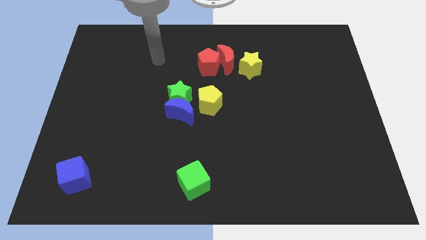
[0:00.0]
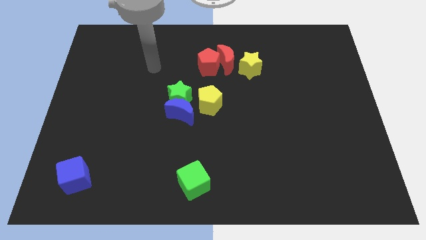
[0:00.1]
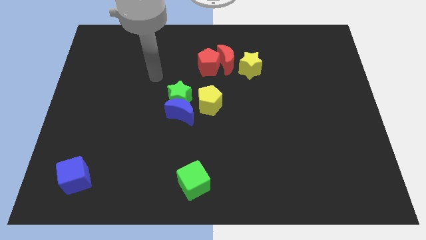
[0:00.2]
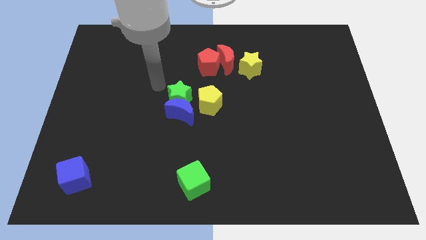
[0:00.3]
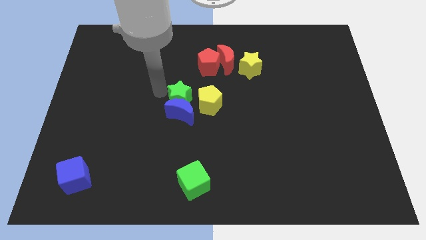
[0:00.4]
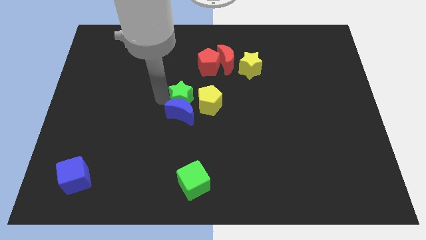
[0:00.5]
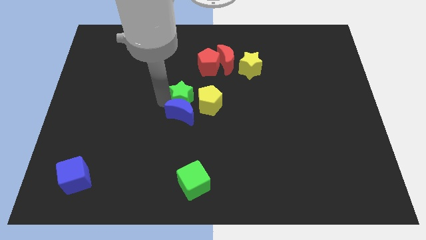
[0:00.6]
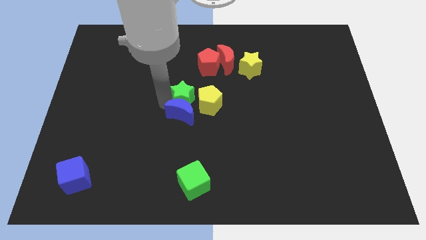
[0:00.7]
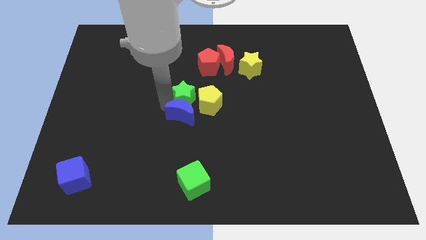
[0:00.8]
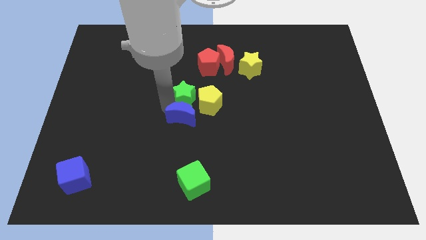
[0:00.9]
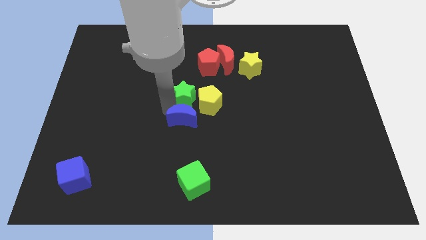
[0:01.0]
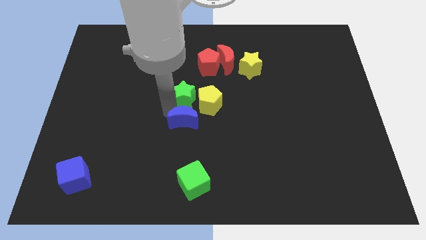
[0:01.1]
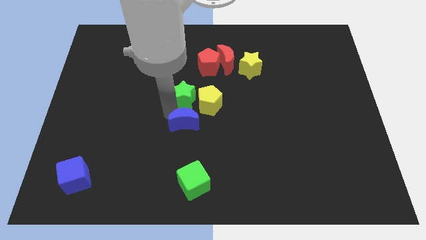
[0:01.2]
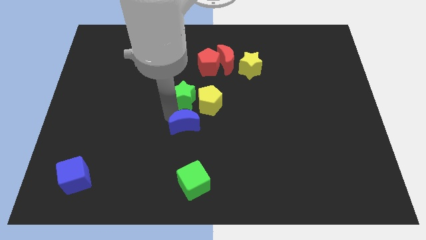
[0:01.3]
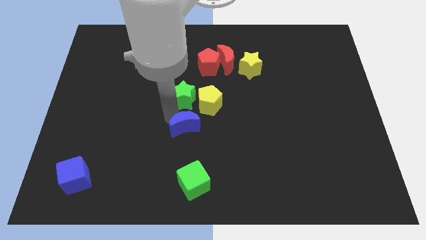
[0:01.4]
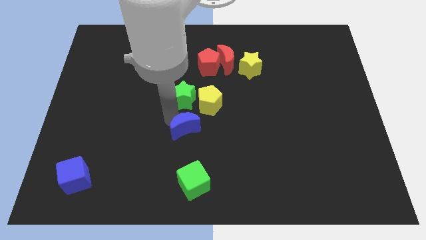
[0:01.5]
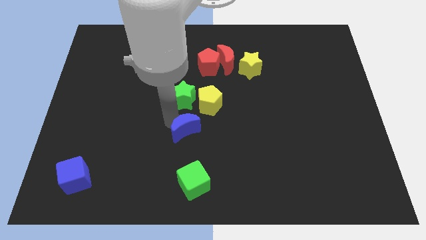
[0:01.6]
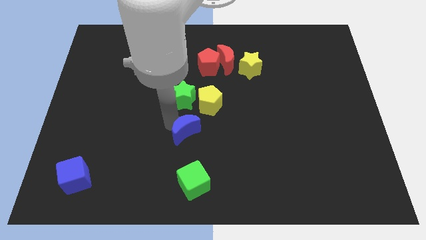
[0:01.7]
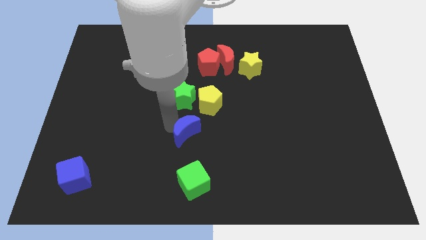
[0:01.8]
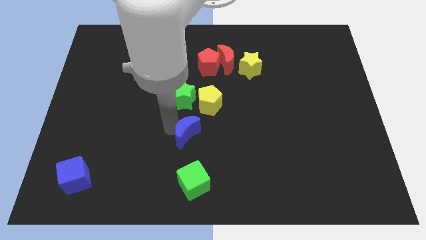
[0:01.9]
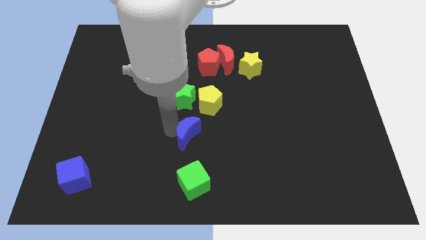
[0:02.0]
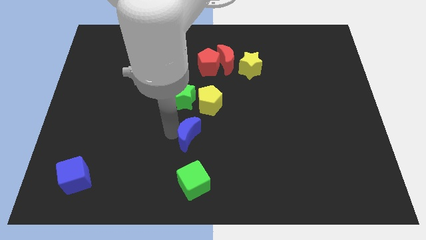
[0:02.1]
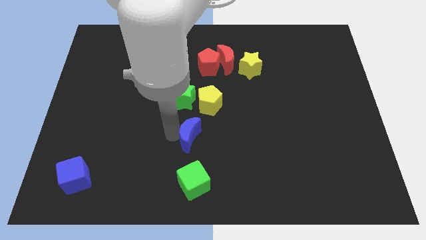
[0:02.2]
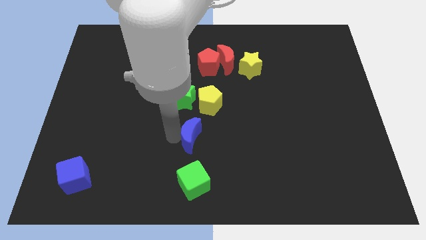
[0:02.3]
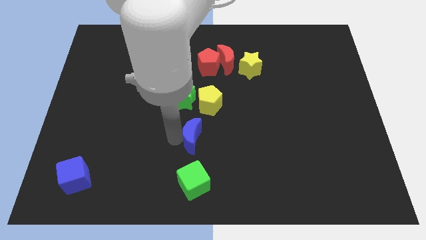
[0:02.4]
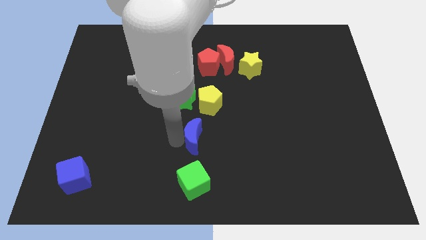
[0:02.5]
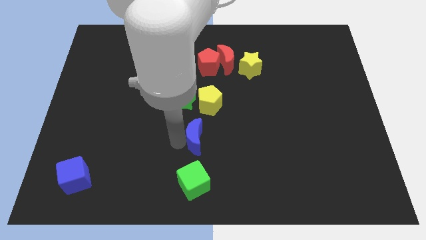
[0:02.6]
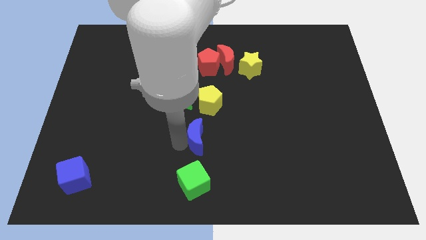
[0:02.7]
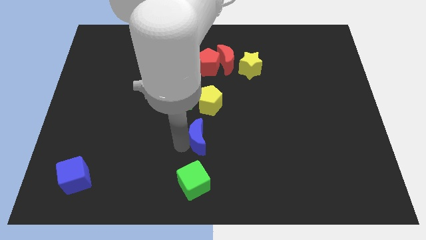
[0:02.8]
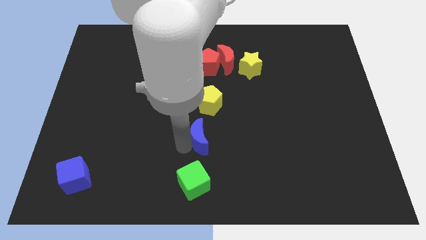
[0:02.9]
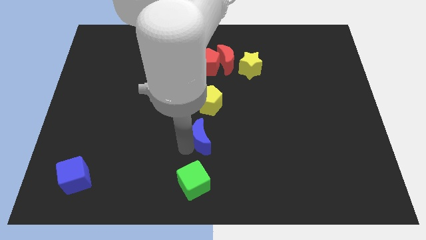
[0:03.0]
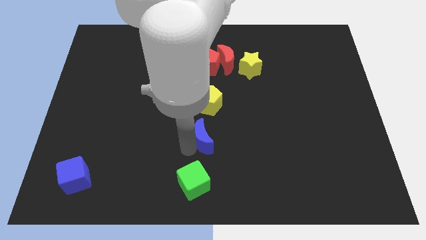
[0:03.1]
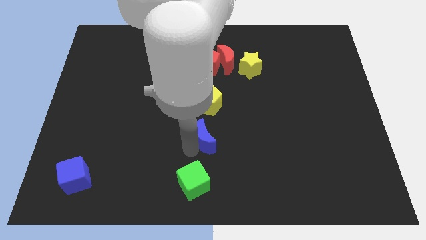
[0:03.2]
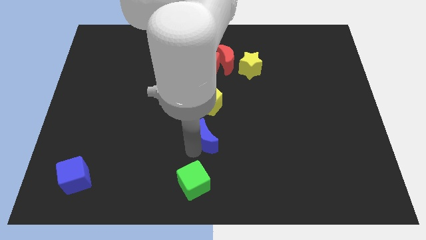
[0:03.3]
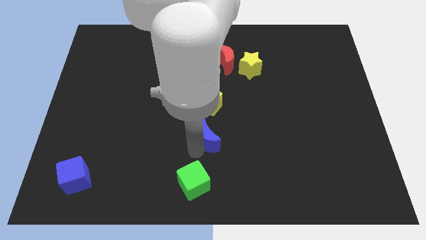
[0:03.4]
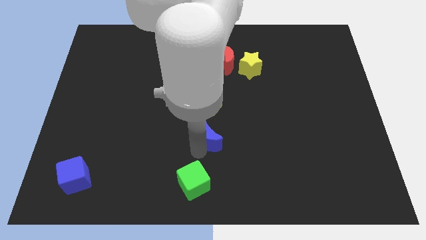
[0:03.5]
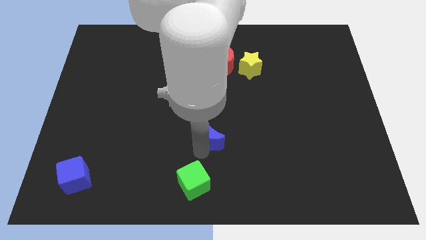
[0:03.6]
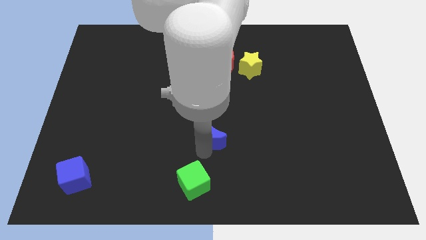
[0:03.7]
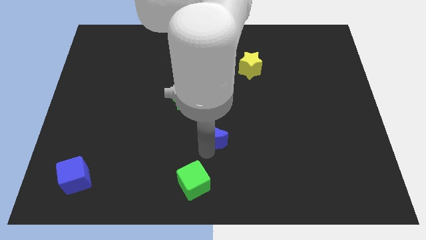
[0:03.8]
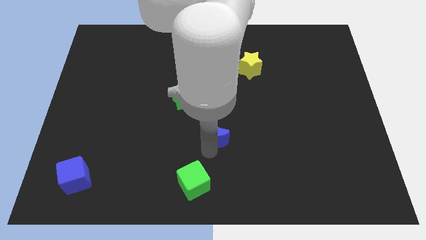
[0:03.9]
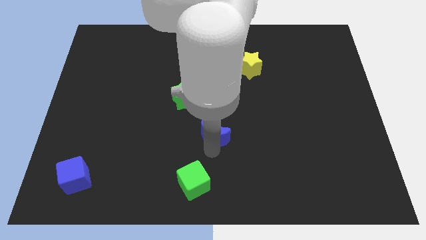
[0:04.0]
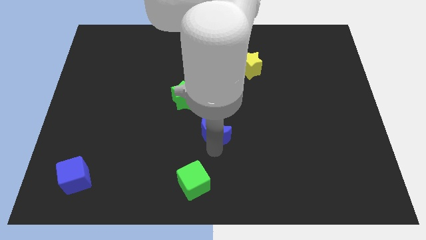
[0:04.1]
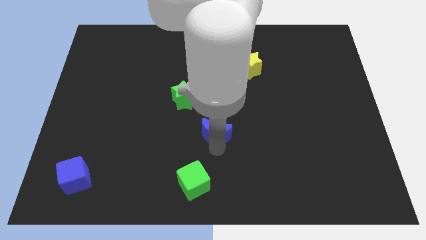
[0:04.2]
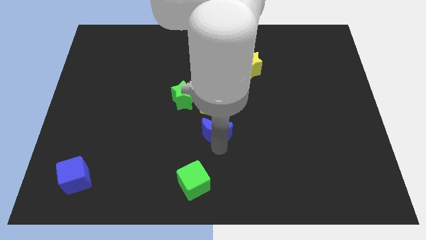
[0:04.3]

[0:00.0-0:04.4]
push the blue moon a little to the right

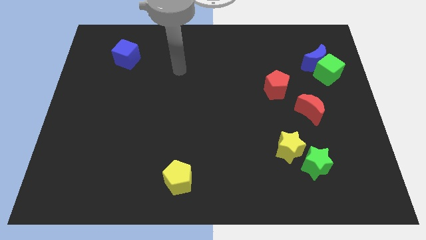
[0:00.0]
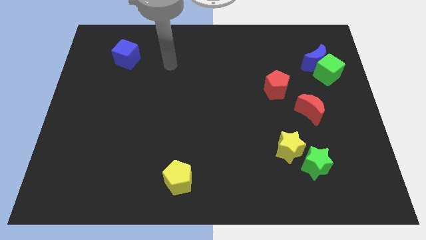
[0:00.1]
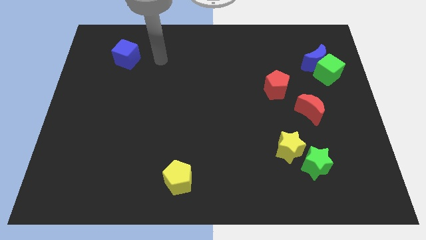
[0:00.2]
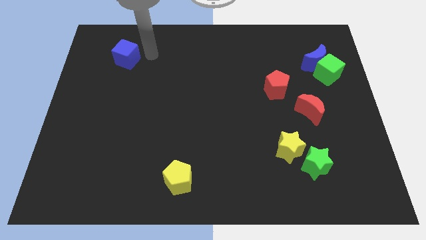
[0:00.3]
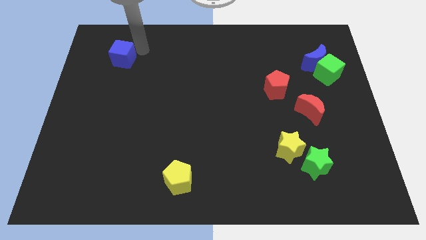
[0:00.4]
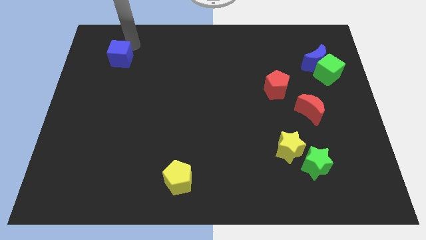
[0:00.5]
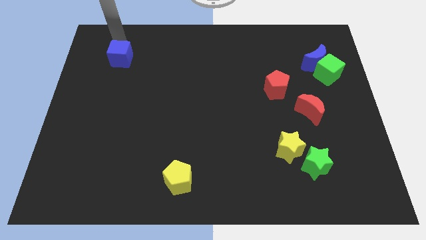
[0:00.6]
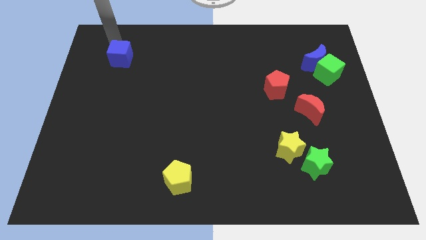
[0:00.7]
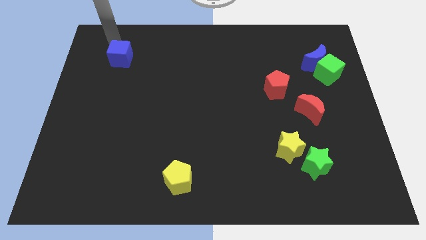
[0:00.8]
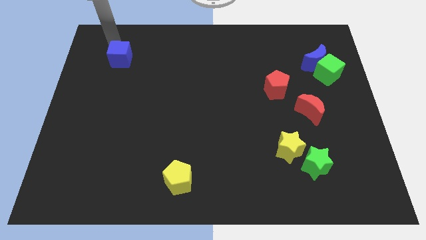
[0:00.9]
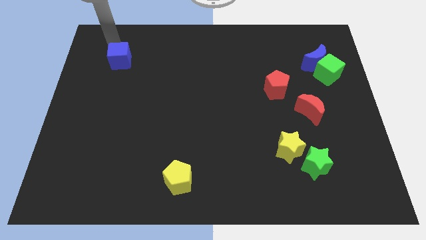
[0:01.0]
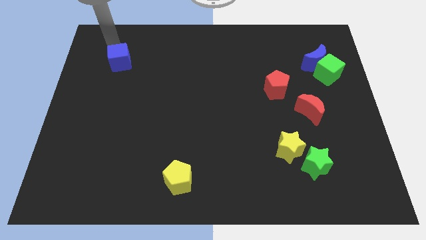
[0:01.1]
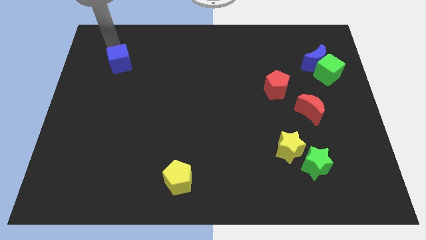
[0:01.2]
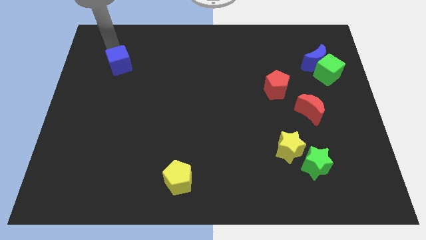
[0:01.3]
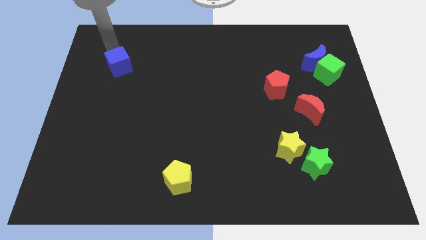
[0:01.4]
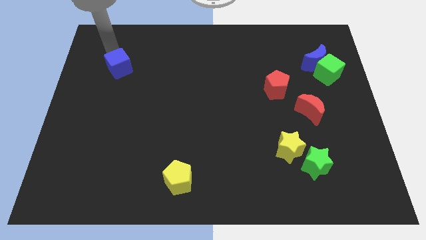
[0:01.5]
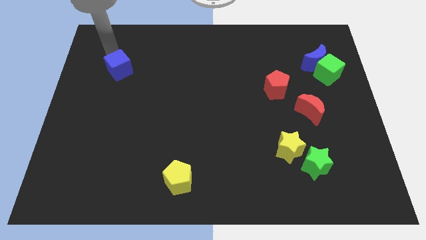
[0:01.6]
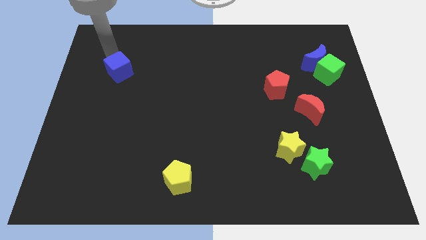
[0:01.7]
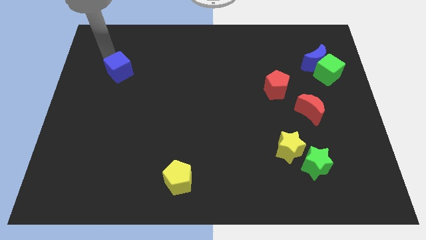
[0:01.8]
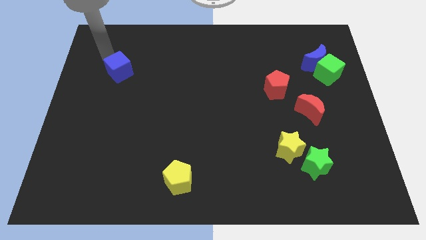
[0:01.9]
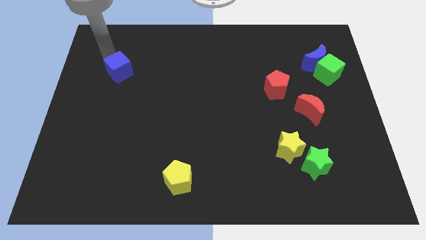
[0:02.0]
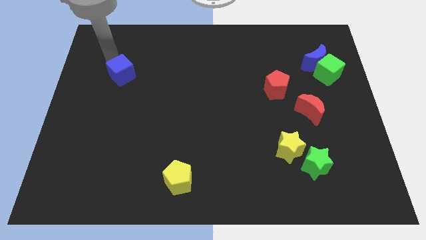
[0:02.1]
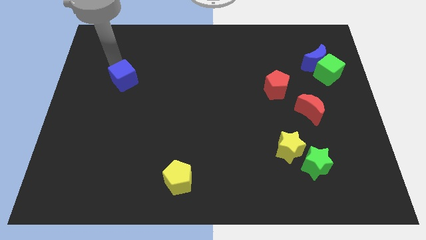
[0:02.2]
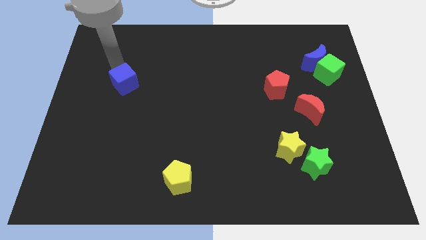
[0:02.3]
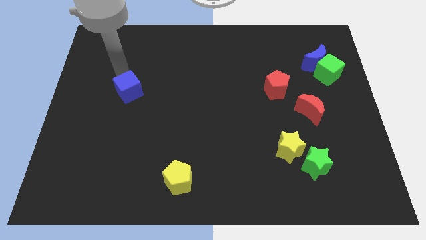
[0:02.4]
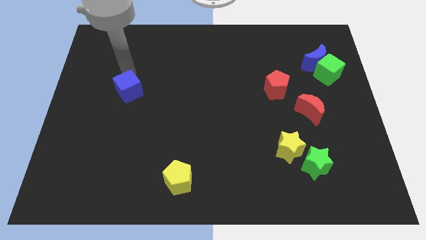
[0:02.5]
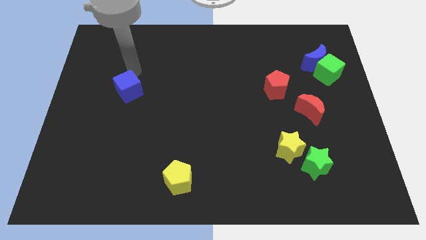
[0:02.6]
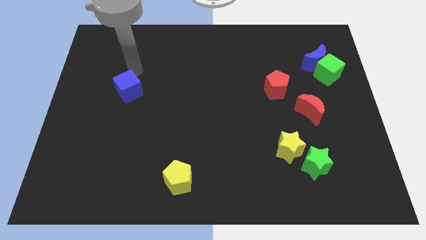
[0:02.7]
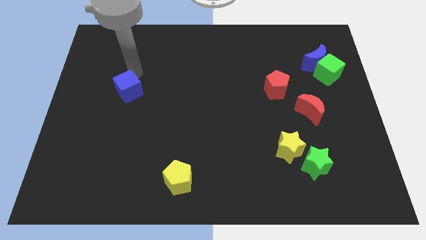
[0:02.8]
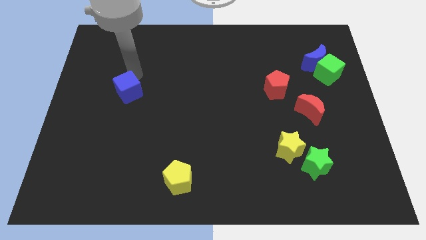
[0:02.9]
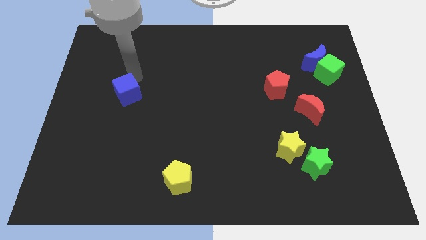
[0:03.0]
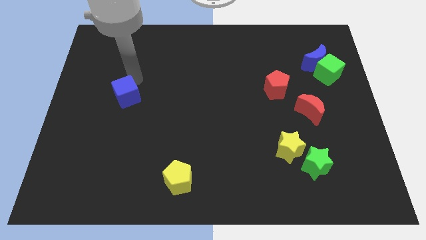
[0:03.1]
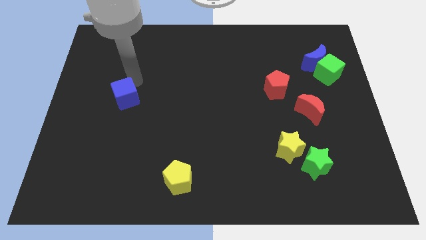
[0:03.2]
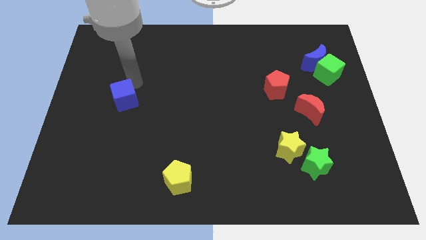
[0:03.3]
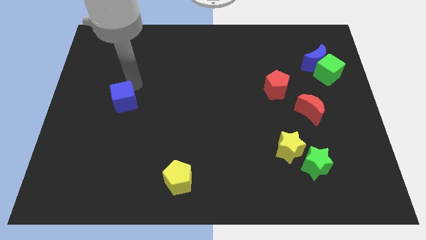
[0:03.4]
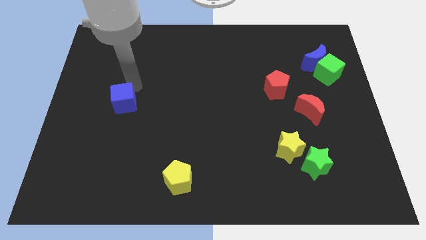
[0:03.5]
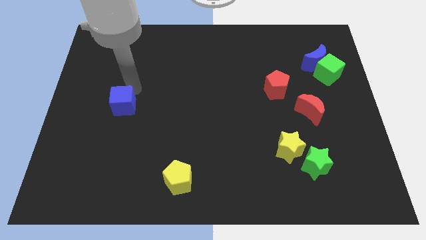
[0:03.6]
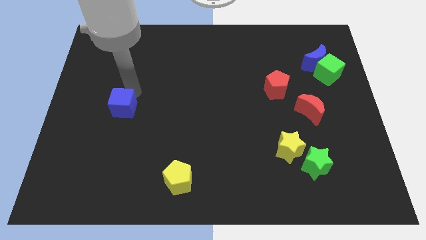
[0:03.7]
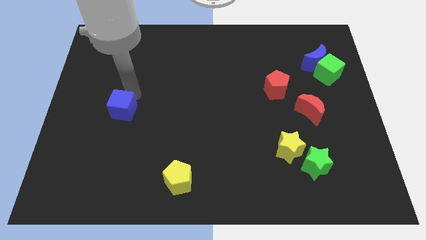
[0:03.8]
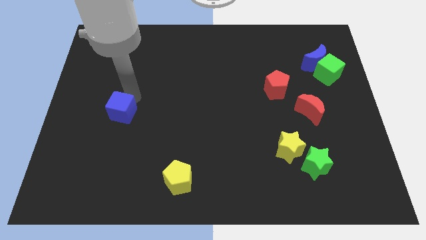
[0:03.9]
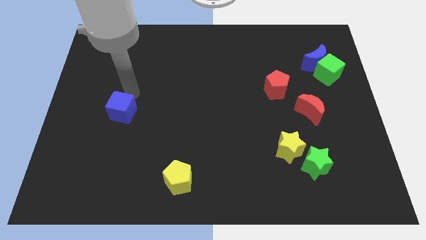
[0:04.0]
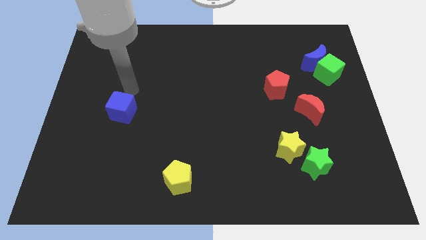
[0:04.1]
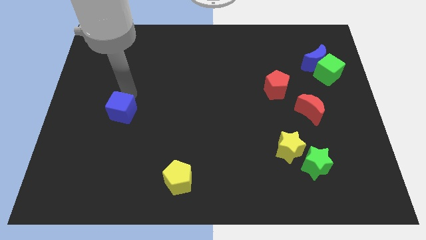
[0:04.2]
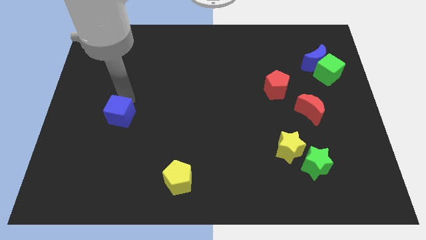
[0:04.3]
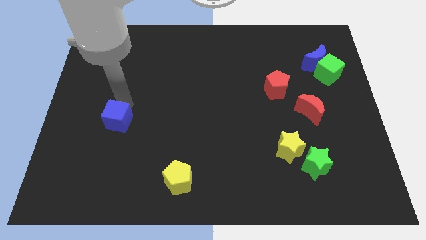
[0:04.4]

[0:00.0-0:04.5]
move the blue cube down
